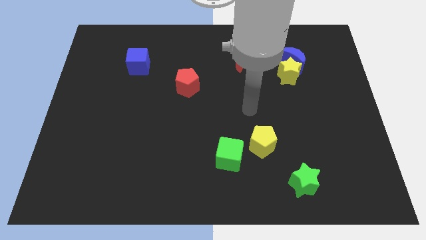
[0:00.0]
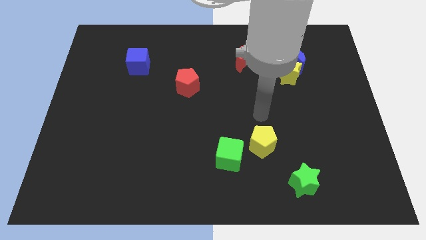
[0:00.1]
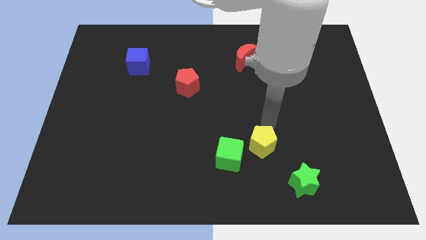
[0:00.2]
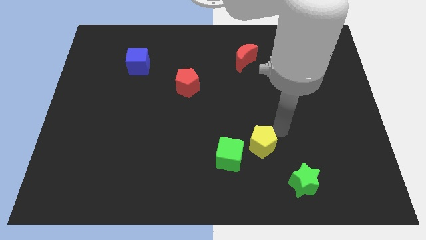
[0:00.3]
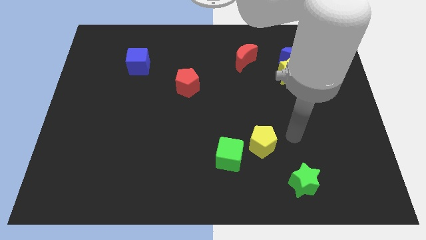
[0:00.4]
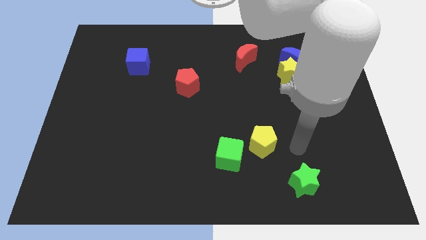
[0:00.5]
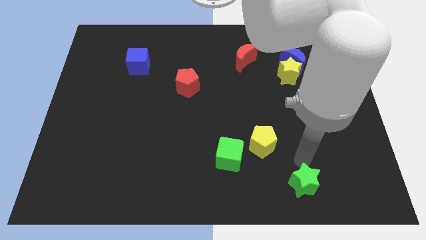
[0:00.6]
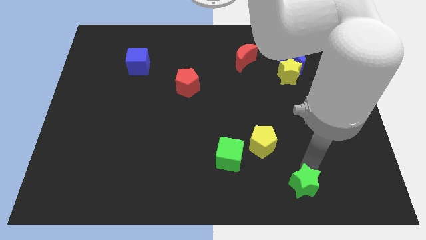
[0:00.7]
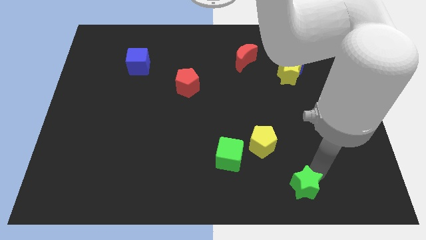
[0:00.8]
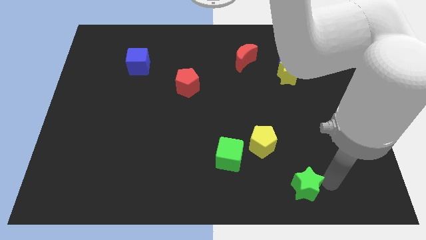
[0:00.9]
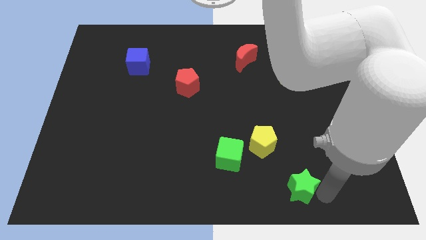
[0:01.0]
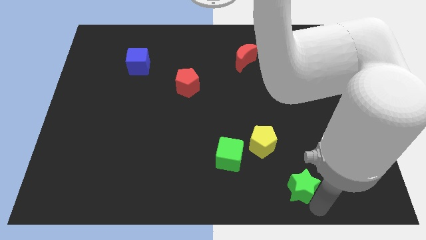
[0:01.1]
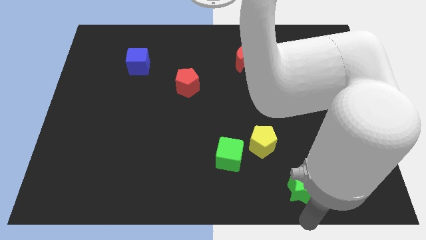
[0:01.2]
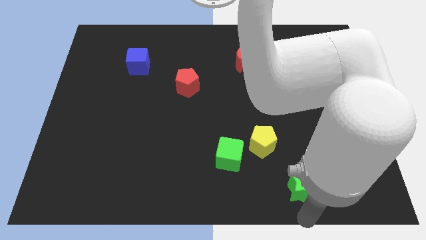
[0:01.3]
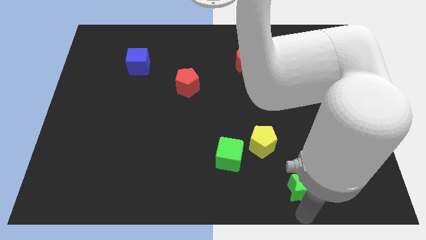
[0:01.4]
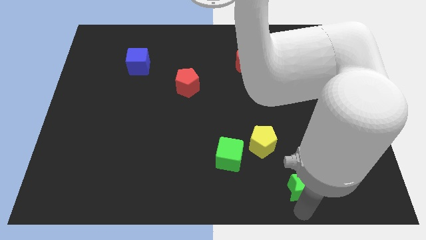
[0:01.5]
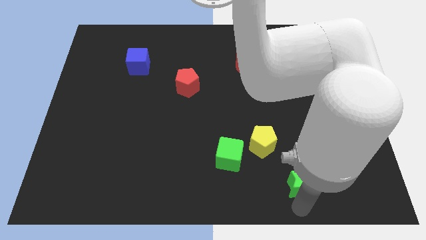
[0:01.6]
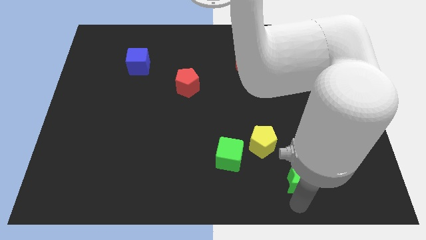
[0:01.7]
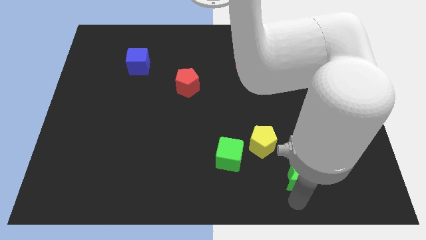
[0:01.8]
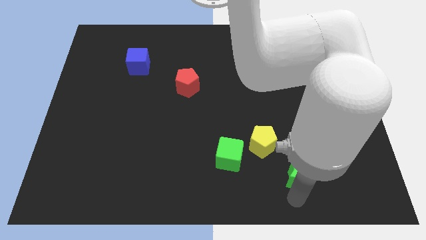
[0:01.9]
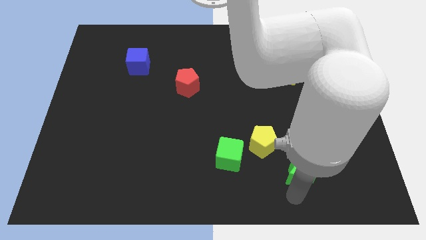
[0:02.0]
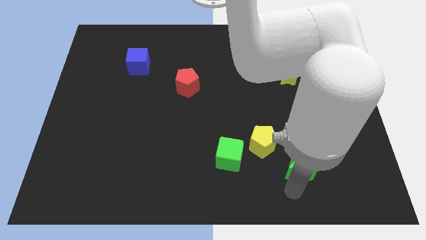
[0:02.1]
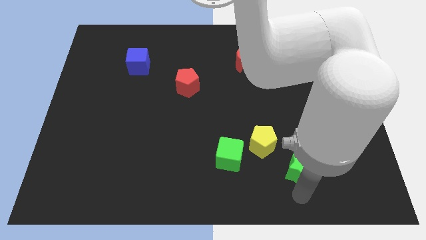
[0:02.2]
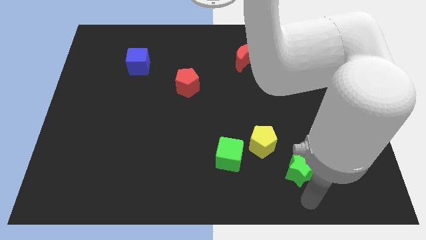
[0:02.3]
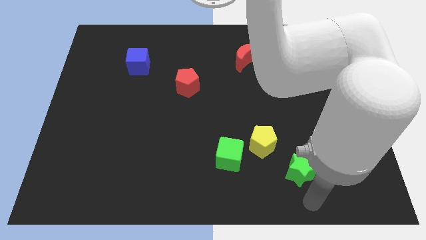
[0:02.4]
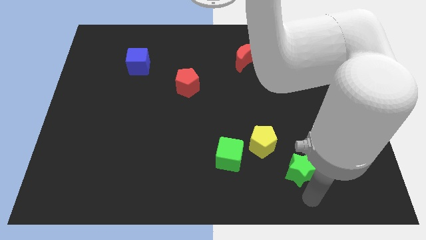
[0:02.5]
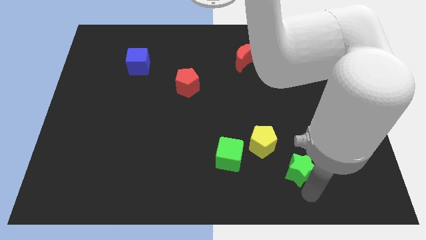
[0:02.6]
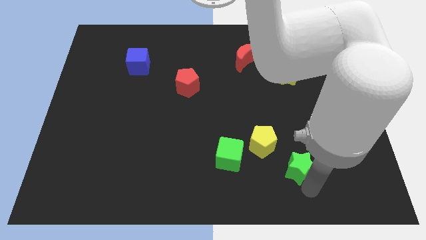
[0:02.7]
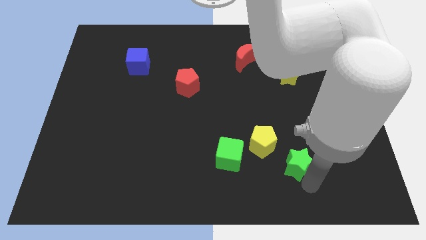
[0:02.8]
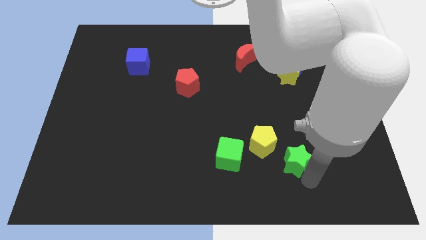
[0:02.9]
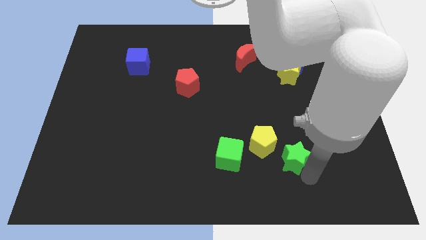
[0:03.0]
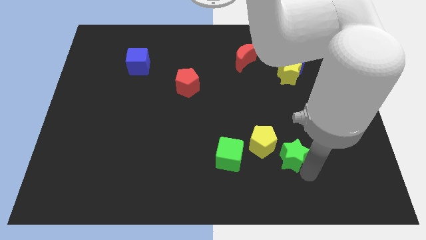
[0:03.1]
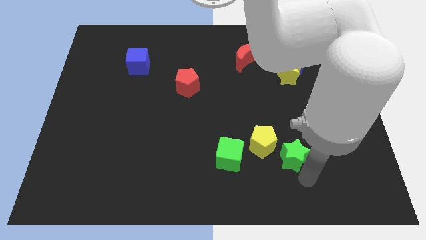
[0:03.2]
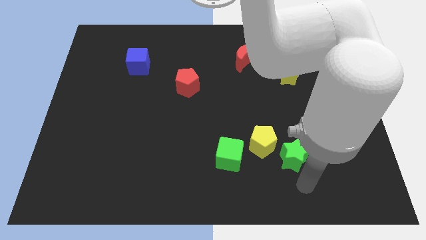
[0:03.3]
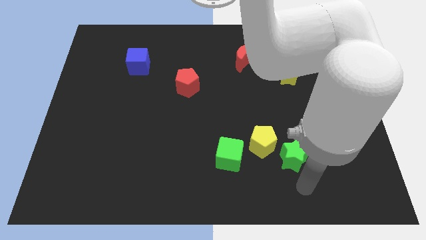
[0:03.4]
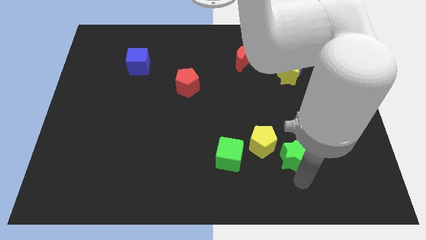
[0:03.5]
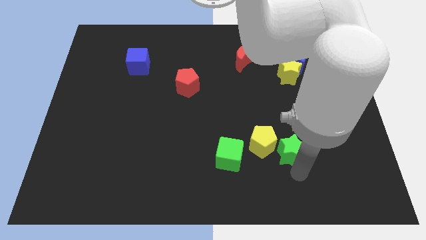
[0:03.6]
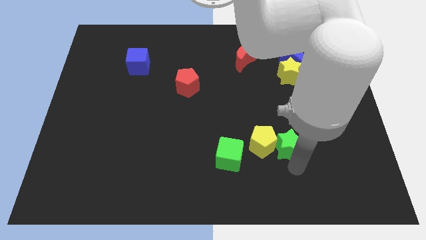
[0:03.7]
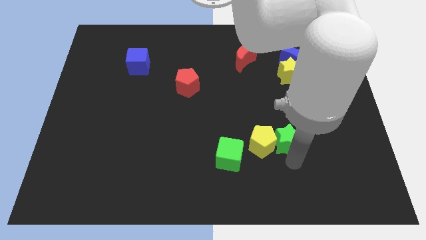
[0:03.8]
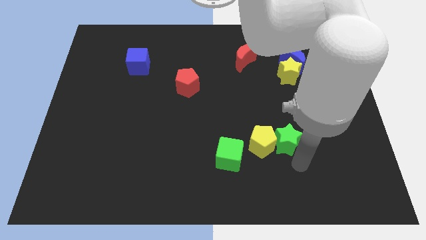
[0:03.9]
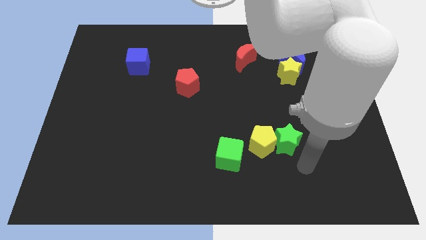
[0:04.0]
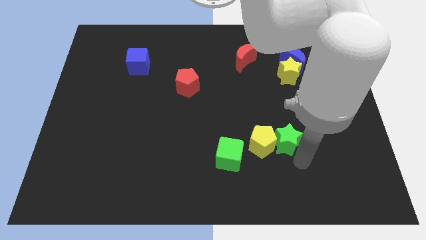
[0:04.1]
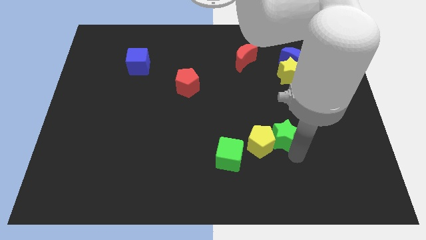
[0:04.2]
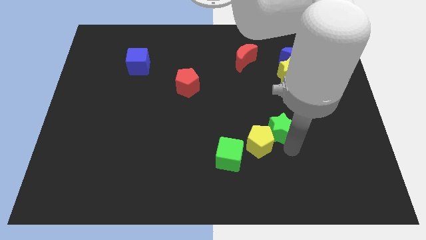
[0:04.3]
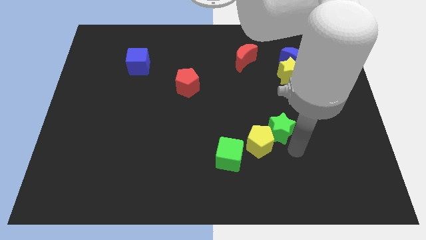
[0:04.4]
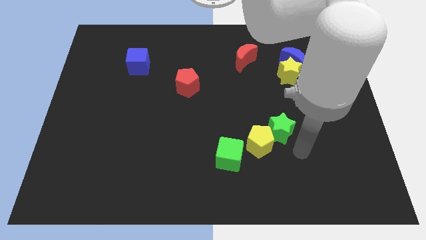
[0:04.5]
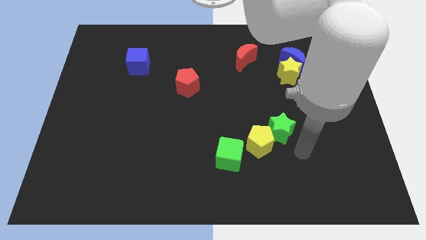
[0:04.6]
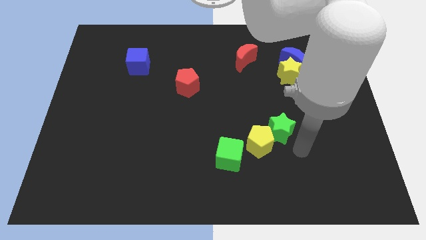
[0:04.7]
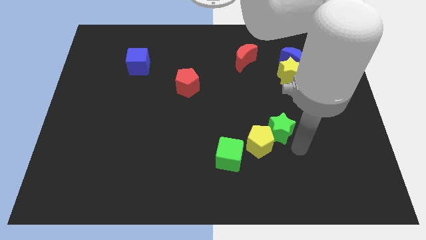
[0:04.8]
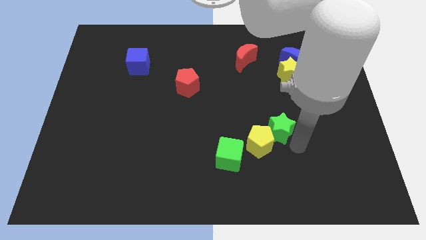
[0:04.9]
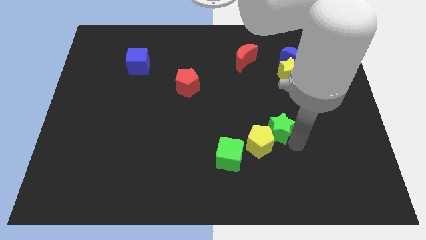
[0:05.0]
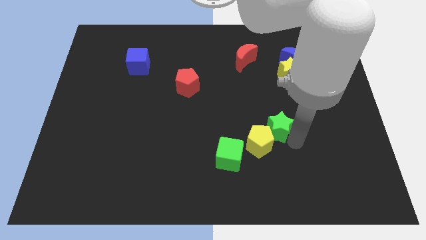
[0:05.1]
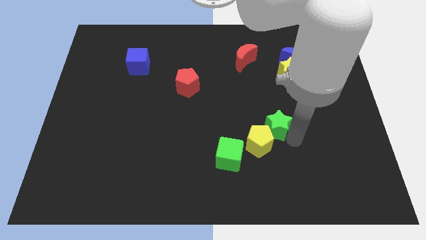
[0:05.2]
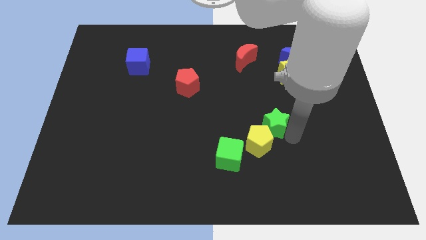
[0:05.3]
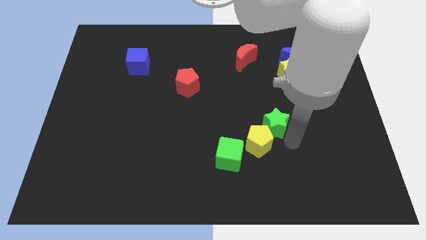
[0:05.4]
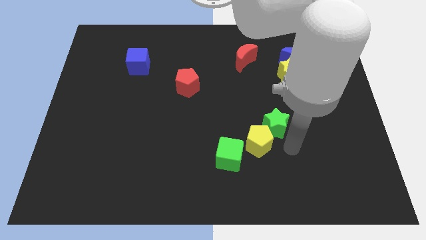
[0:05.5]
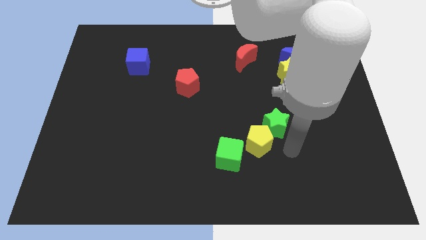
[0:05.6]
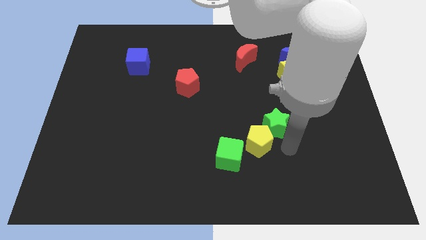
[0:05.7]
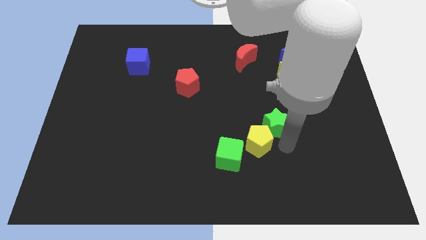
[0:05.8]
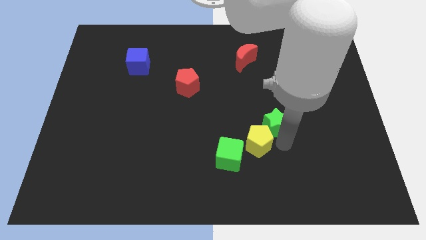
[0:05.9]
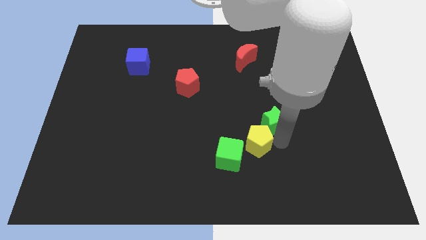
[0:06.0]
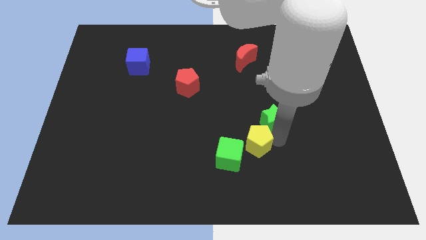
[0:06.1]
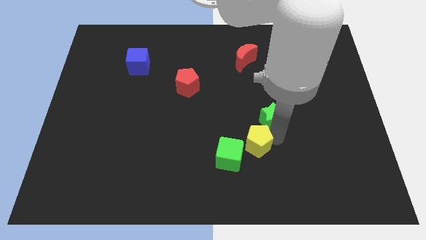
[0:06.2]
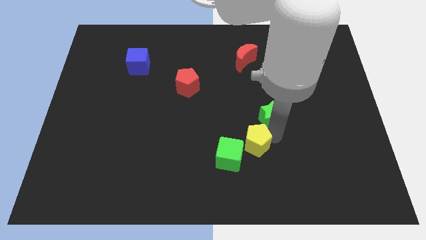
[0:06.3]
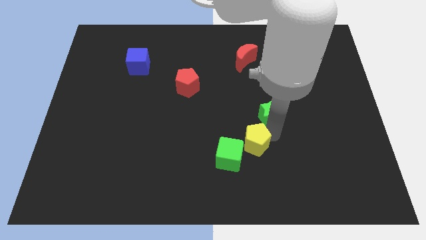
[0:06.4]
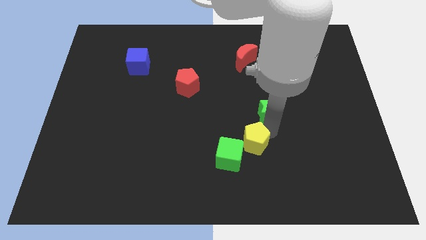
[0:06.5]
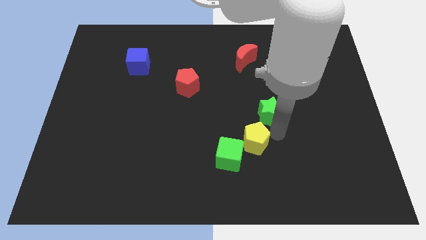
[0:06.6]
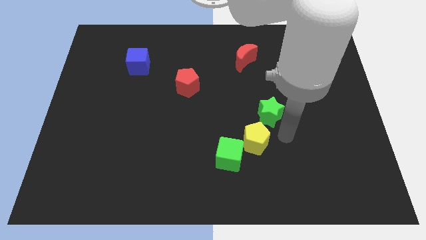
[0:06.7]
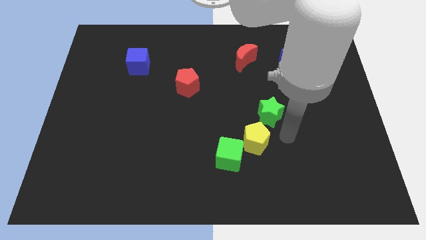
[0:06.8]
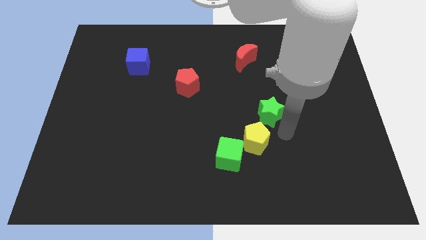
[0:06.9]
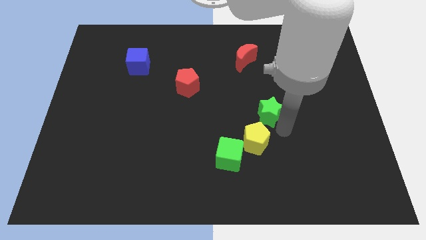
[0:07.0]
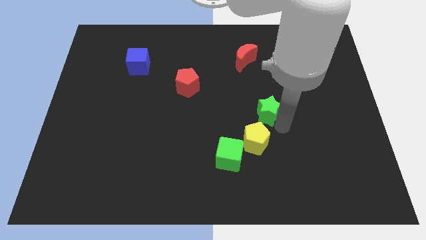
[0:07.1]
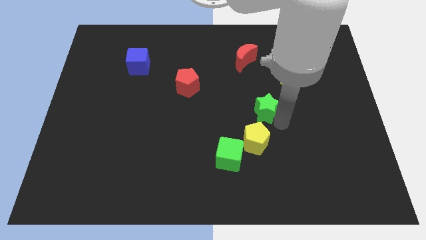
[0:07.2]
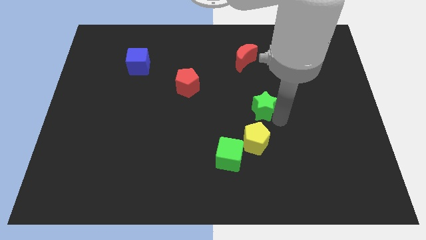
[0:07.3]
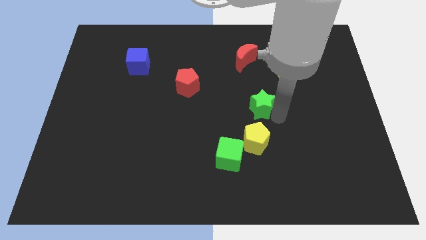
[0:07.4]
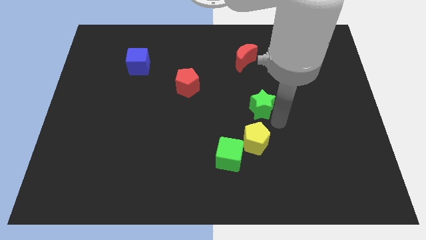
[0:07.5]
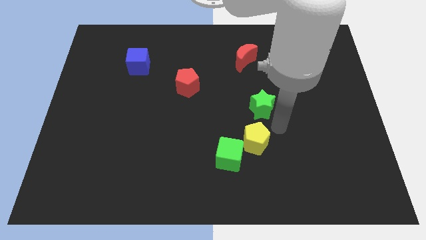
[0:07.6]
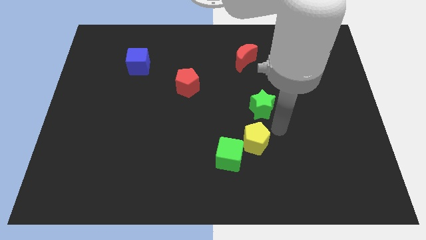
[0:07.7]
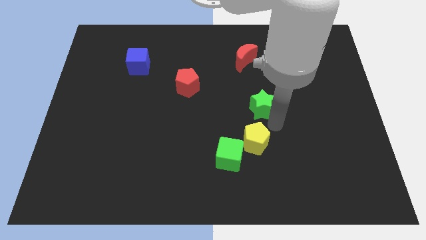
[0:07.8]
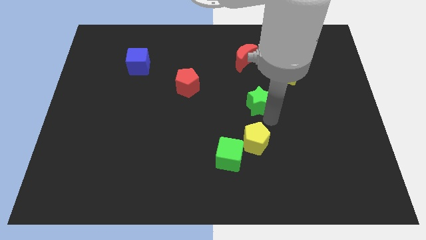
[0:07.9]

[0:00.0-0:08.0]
move the green star to the bottom of the red moon
